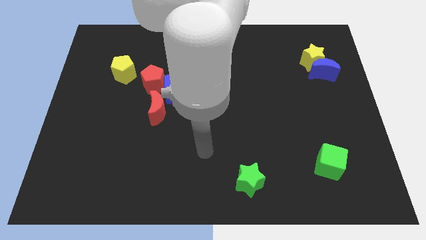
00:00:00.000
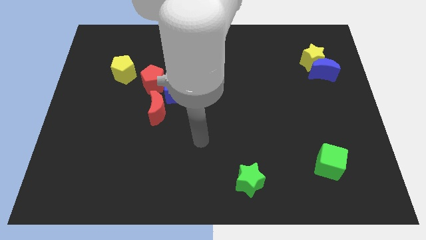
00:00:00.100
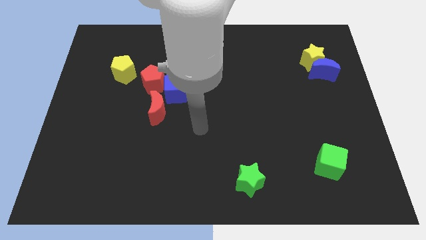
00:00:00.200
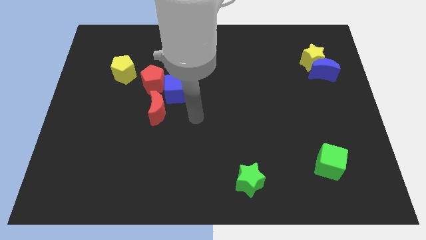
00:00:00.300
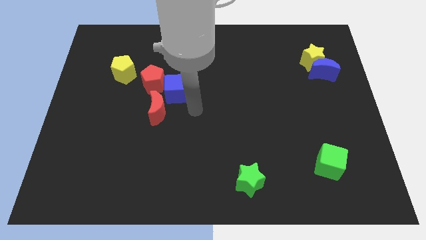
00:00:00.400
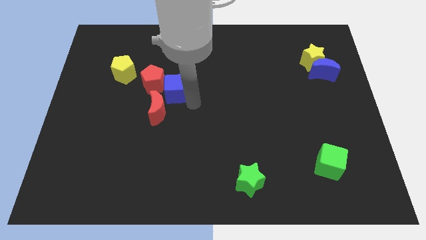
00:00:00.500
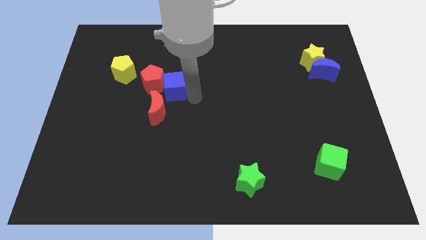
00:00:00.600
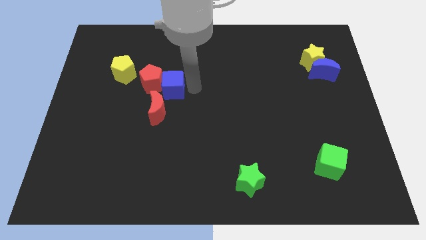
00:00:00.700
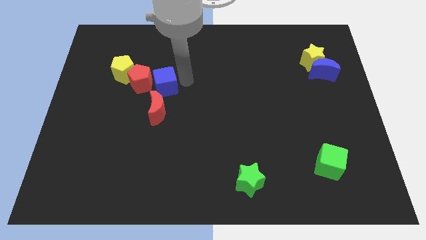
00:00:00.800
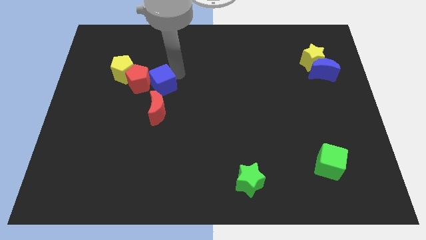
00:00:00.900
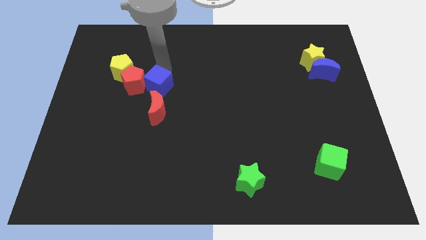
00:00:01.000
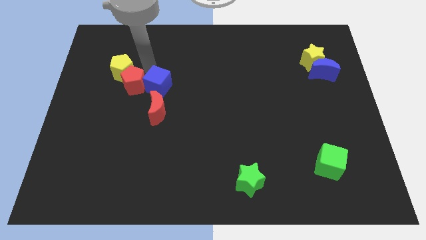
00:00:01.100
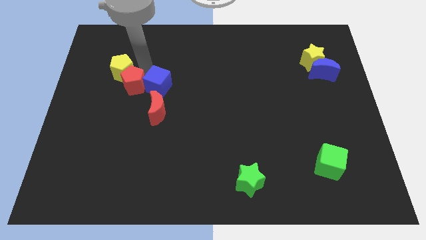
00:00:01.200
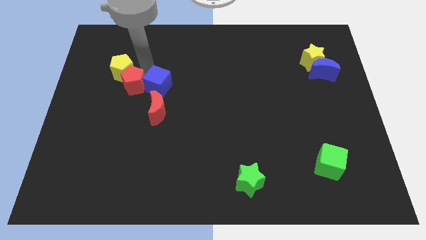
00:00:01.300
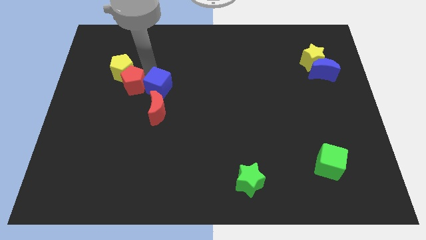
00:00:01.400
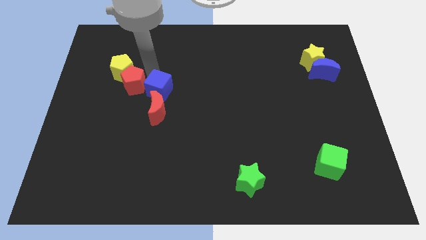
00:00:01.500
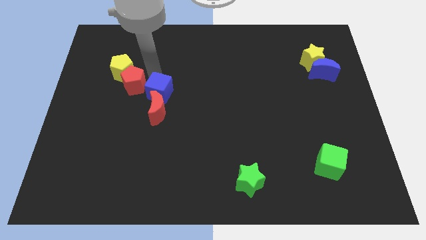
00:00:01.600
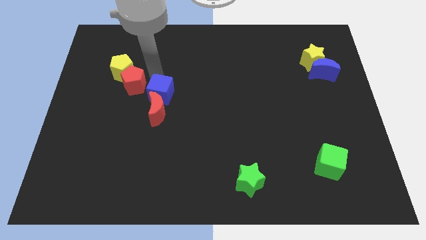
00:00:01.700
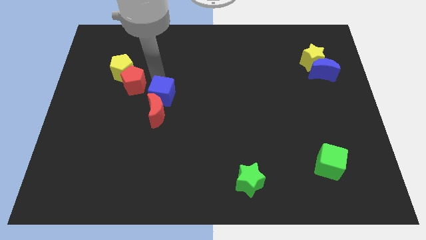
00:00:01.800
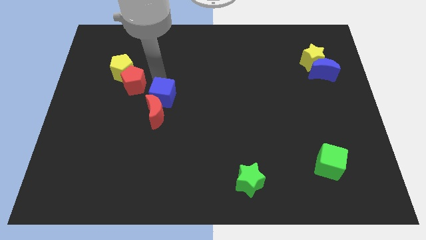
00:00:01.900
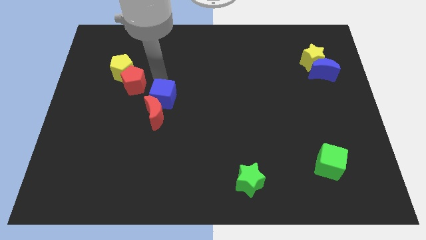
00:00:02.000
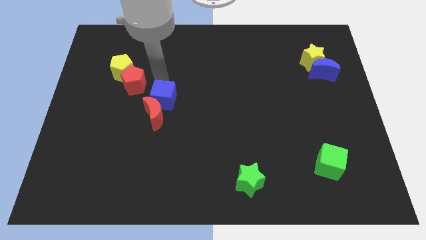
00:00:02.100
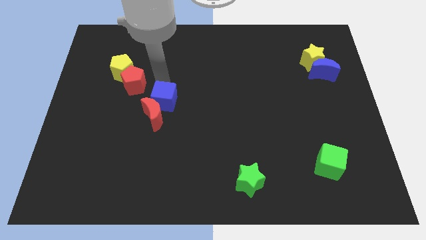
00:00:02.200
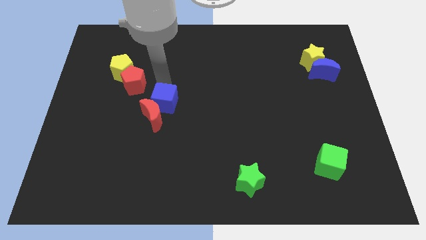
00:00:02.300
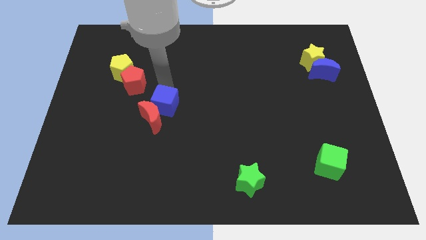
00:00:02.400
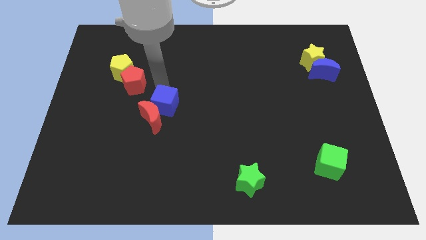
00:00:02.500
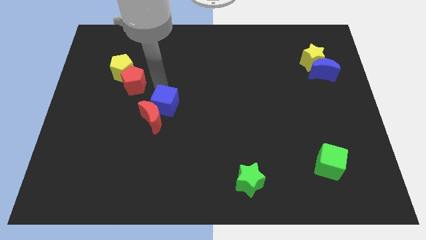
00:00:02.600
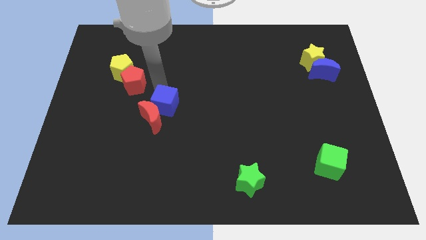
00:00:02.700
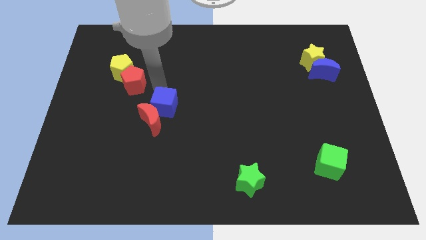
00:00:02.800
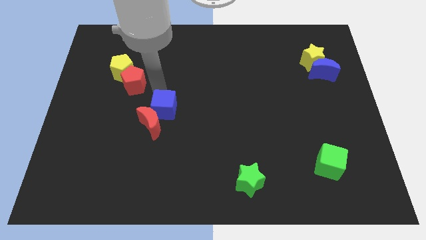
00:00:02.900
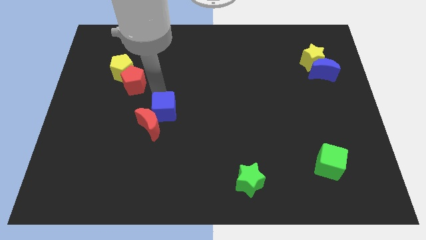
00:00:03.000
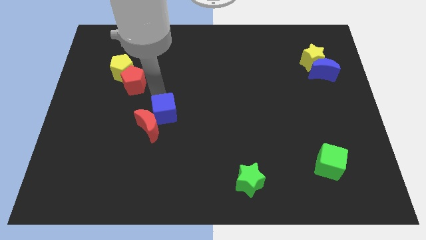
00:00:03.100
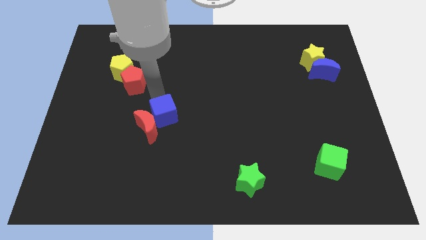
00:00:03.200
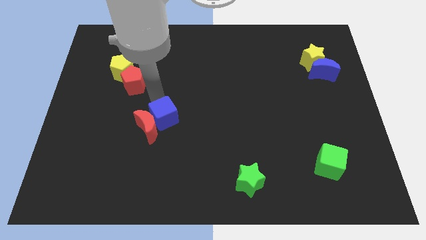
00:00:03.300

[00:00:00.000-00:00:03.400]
slightly push the blue cube down

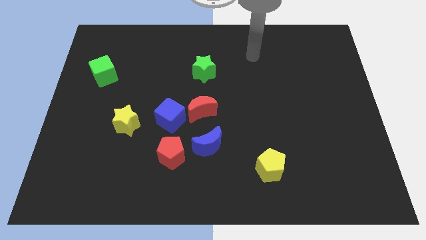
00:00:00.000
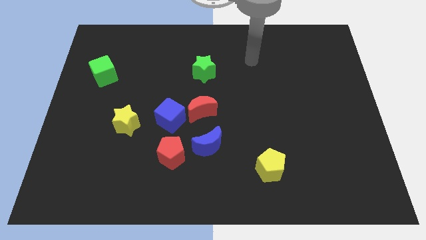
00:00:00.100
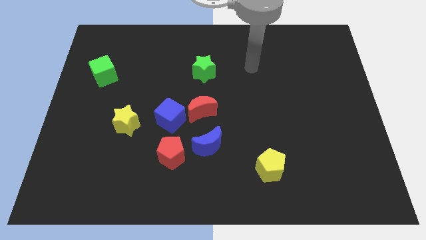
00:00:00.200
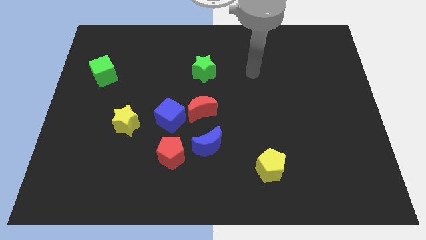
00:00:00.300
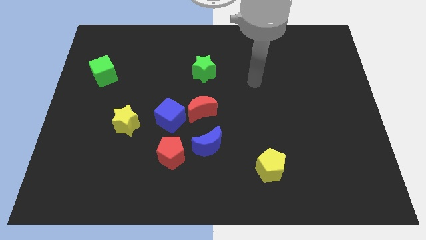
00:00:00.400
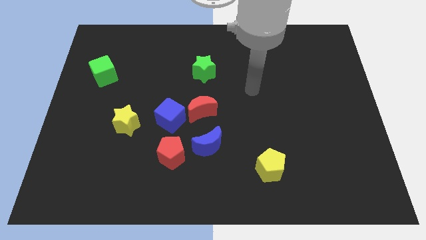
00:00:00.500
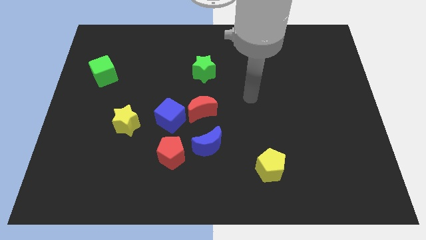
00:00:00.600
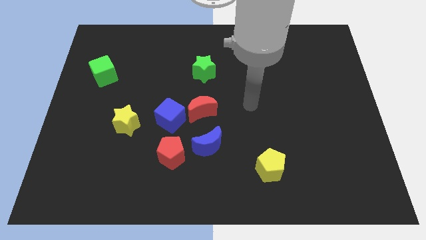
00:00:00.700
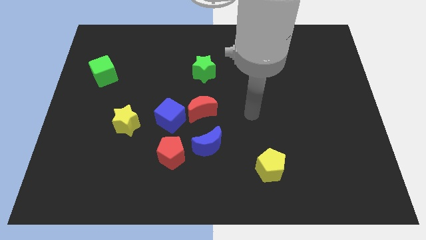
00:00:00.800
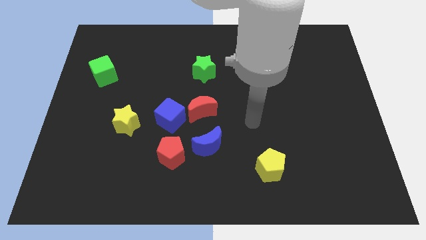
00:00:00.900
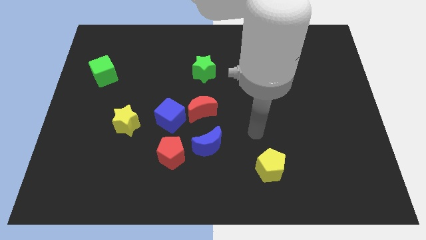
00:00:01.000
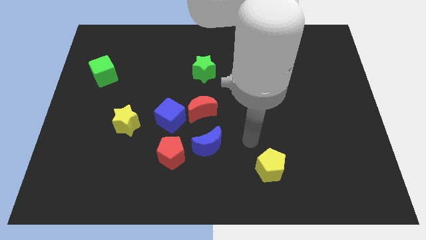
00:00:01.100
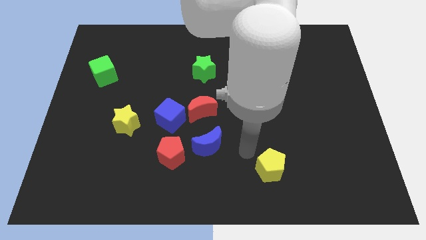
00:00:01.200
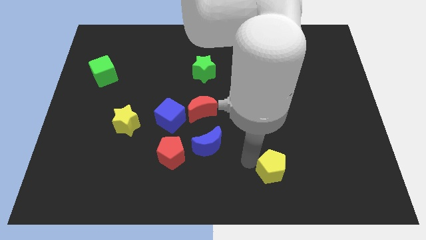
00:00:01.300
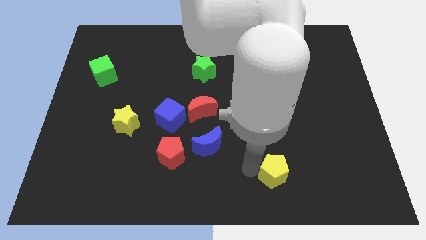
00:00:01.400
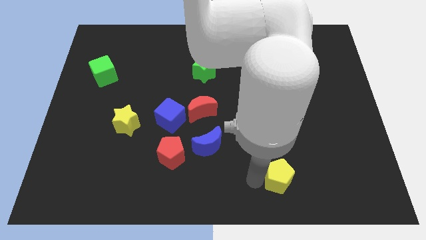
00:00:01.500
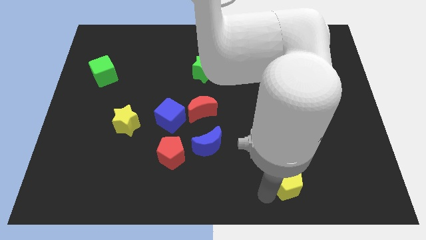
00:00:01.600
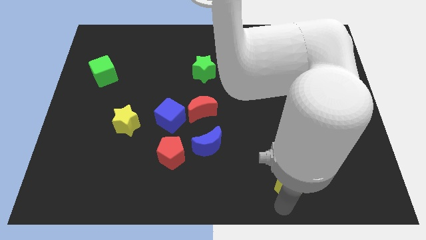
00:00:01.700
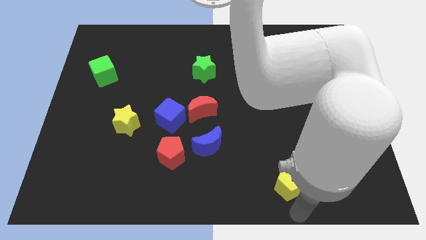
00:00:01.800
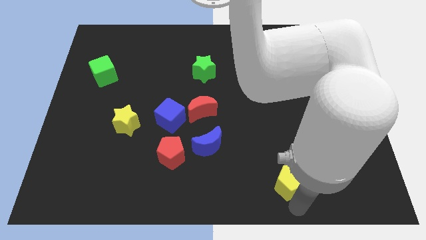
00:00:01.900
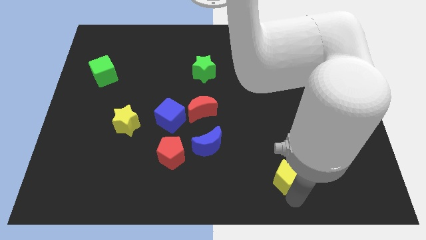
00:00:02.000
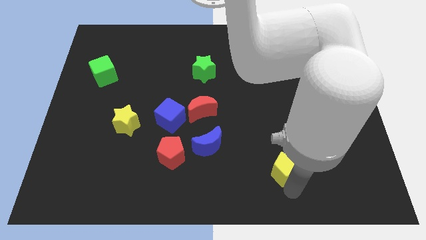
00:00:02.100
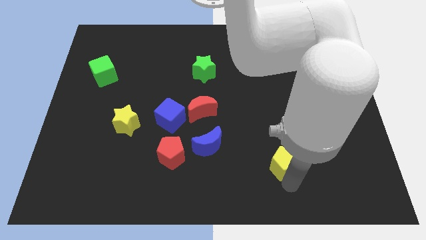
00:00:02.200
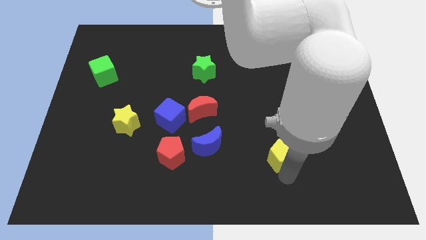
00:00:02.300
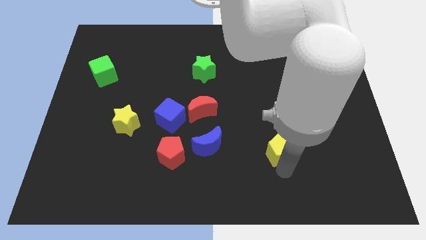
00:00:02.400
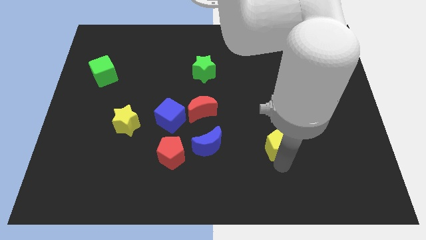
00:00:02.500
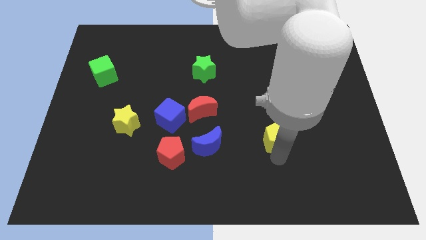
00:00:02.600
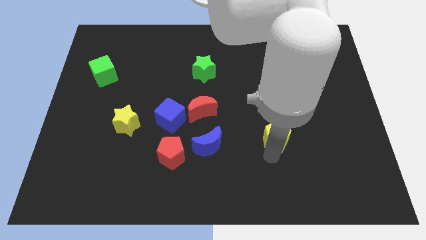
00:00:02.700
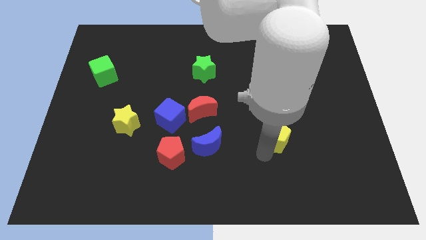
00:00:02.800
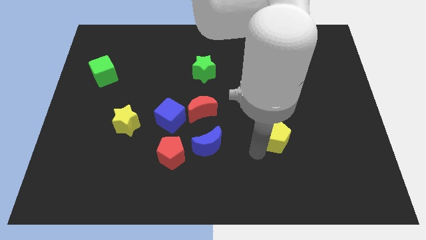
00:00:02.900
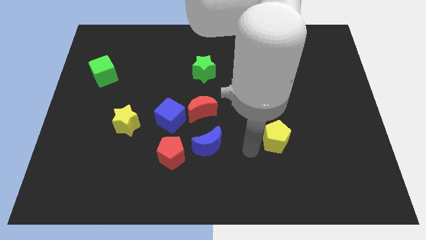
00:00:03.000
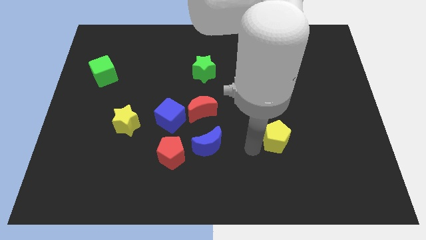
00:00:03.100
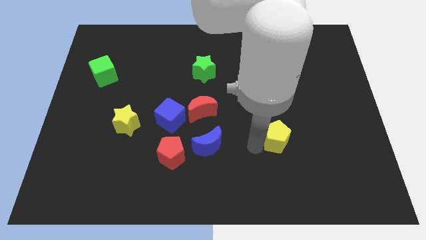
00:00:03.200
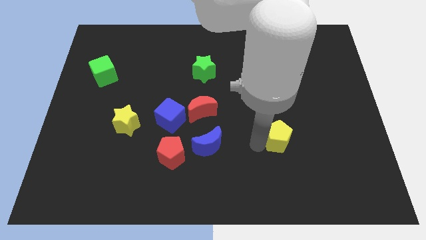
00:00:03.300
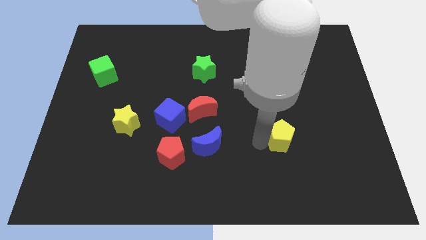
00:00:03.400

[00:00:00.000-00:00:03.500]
push the yellow pentagon up and then to the right a little bit

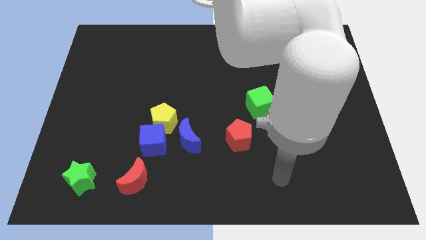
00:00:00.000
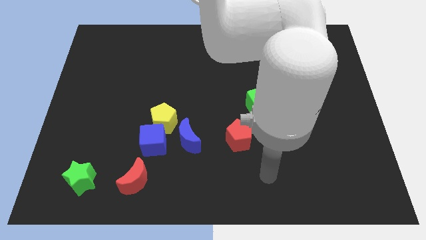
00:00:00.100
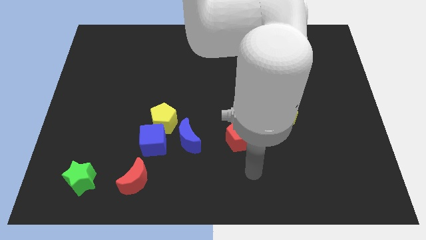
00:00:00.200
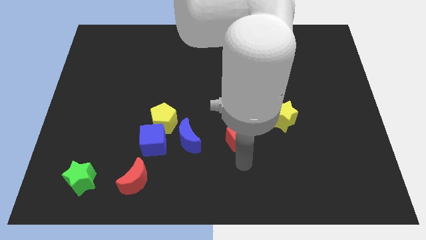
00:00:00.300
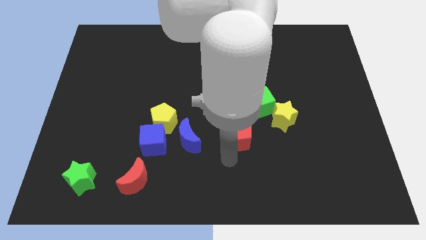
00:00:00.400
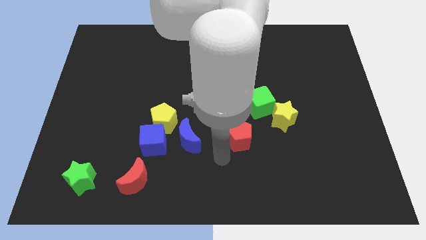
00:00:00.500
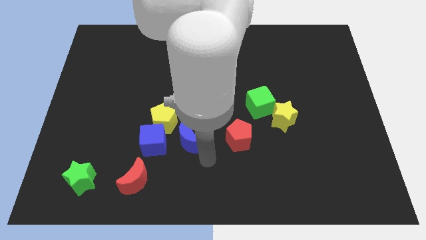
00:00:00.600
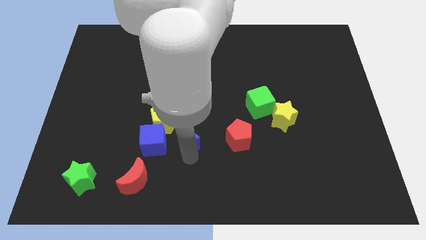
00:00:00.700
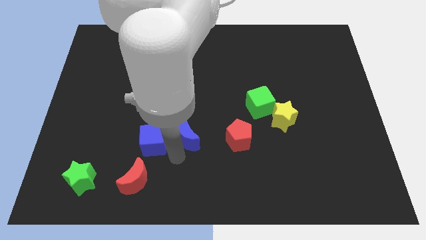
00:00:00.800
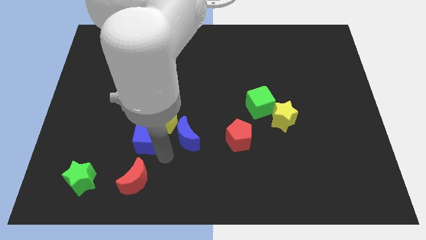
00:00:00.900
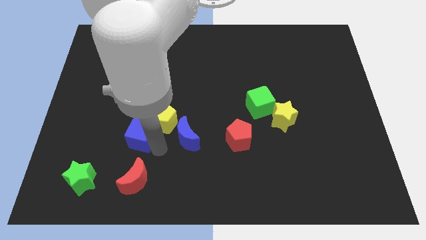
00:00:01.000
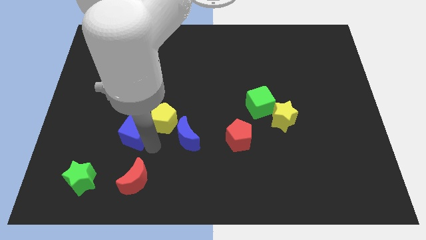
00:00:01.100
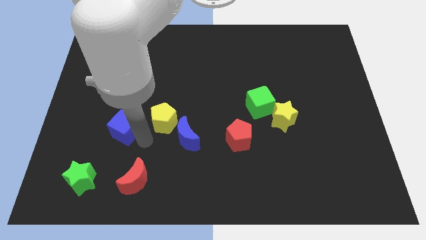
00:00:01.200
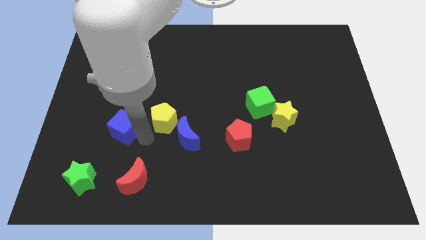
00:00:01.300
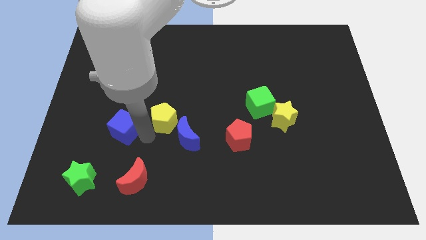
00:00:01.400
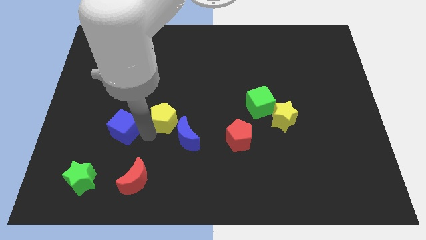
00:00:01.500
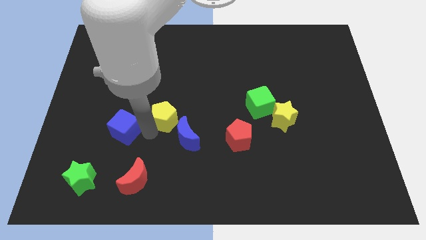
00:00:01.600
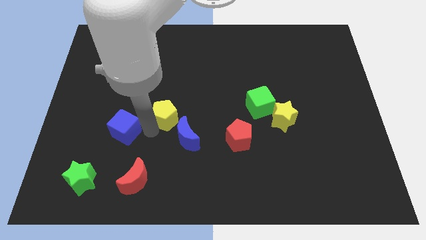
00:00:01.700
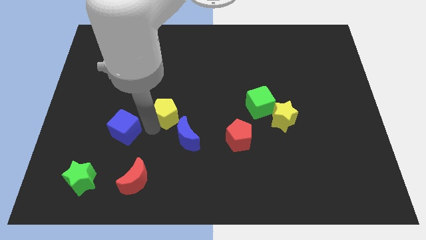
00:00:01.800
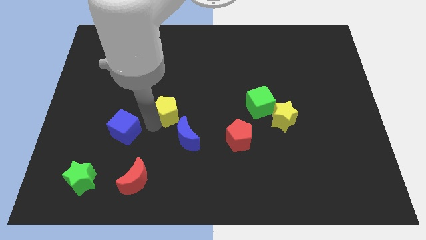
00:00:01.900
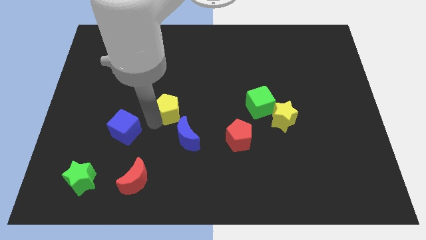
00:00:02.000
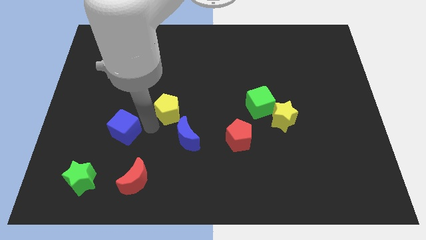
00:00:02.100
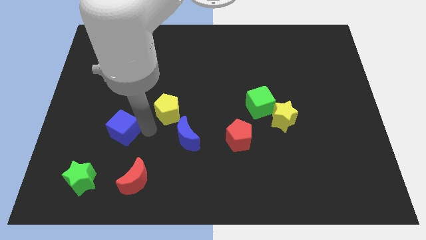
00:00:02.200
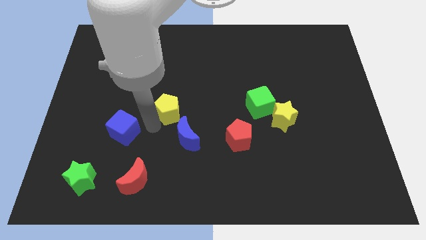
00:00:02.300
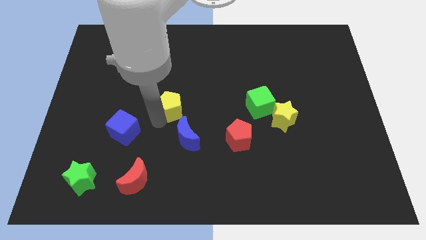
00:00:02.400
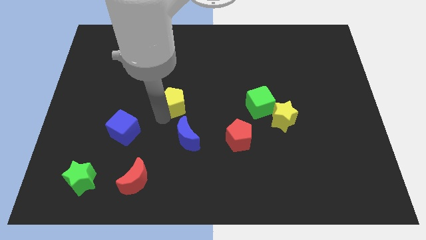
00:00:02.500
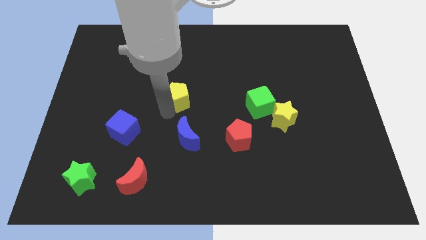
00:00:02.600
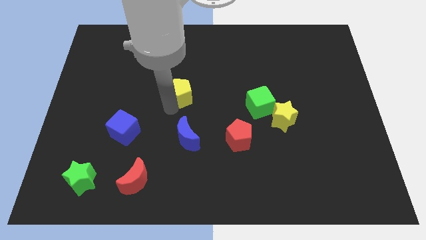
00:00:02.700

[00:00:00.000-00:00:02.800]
slide the yellow pentagon somewhat upwards and to the right
